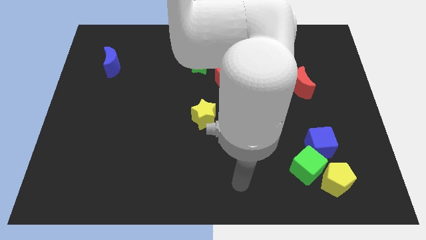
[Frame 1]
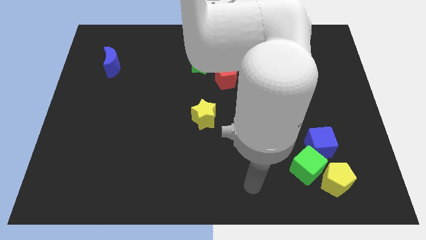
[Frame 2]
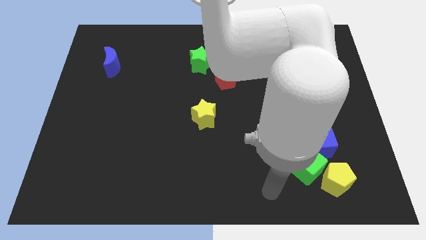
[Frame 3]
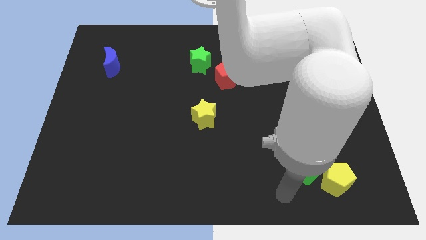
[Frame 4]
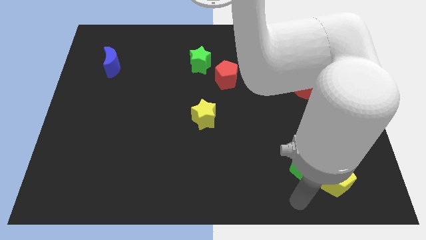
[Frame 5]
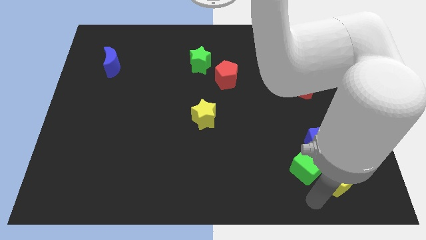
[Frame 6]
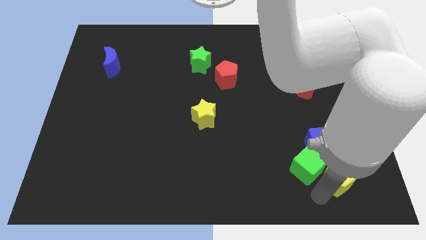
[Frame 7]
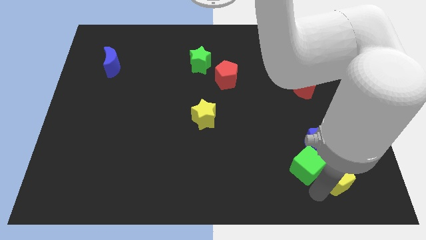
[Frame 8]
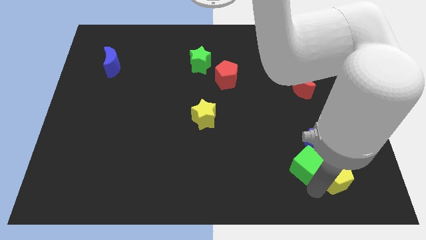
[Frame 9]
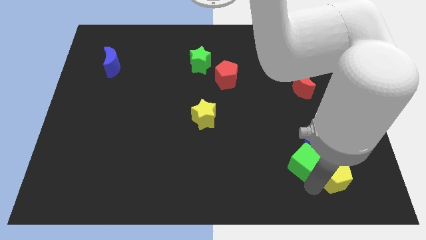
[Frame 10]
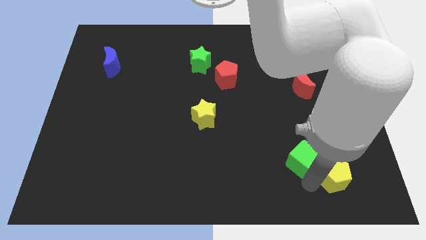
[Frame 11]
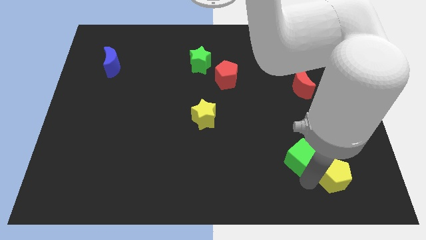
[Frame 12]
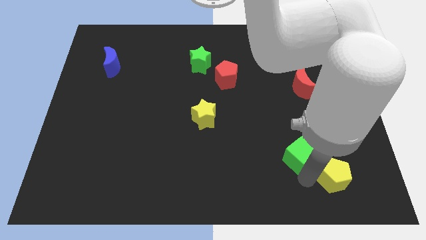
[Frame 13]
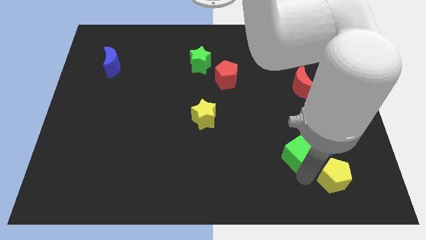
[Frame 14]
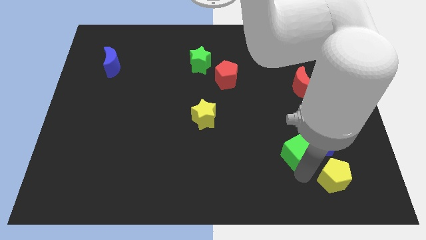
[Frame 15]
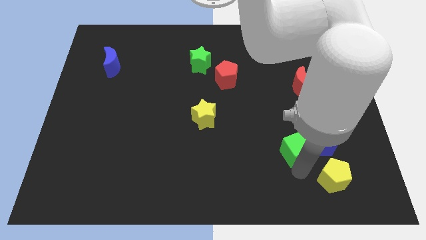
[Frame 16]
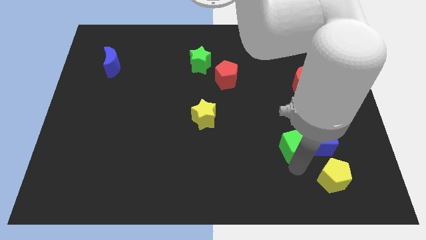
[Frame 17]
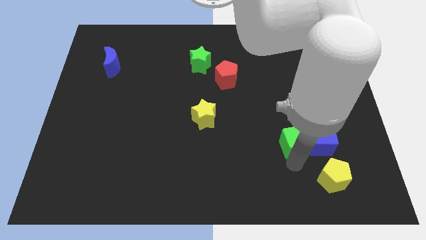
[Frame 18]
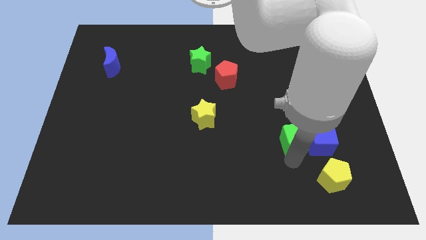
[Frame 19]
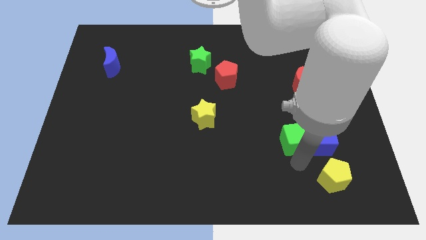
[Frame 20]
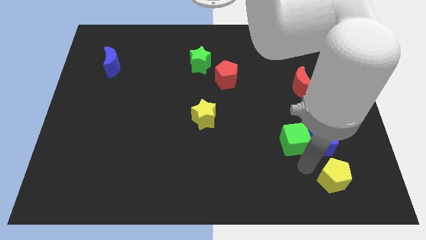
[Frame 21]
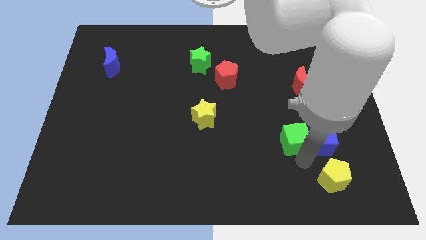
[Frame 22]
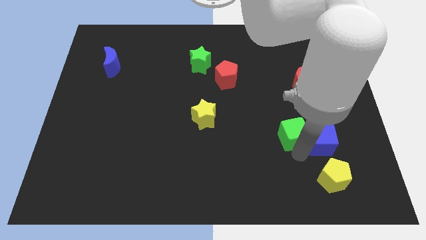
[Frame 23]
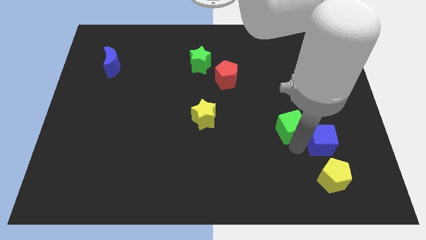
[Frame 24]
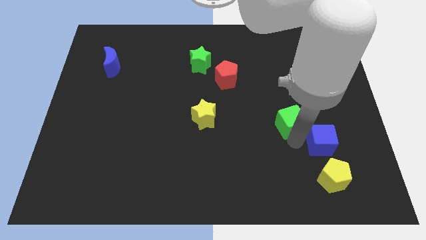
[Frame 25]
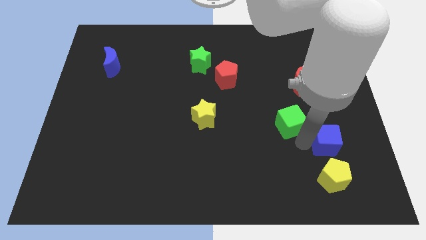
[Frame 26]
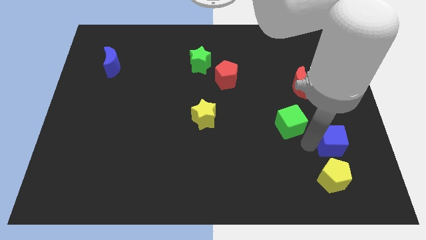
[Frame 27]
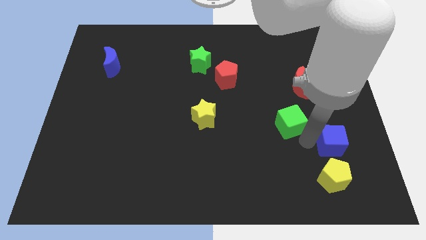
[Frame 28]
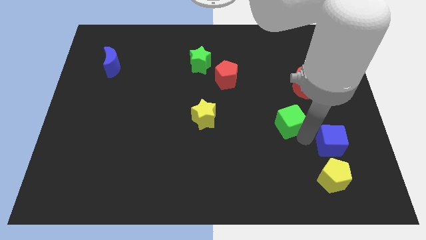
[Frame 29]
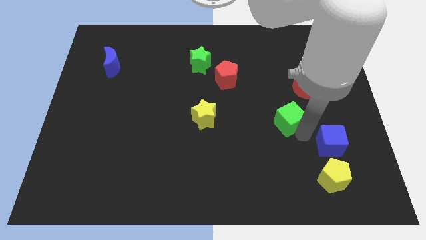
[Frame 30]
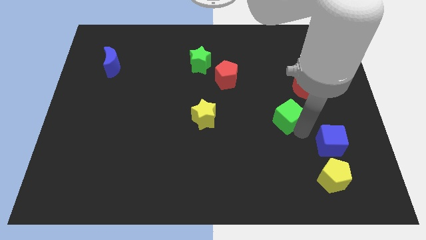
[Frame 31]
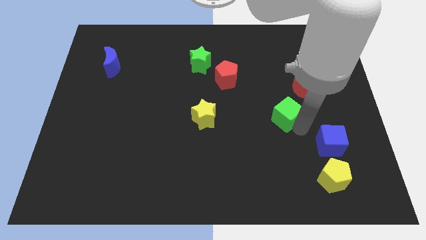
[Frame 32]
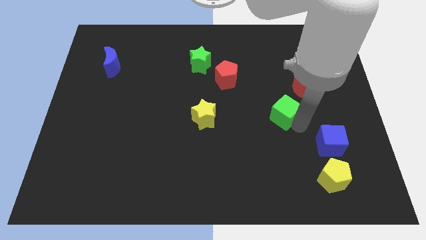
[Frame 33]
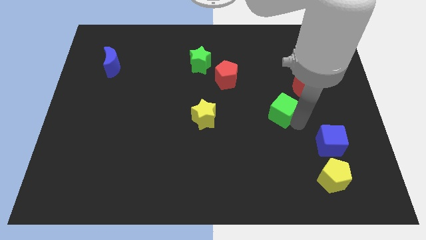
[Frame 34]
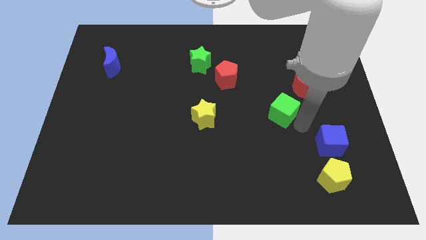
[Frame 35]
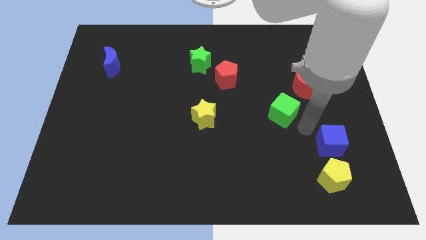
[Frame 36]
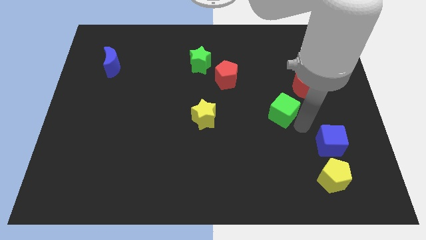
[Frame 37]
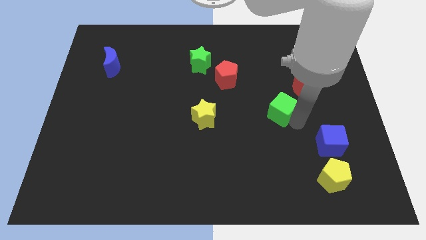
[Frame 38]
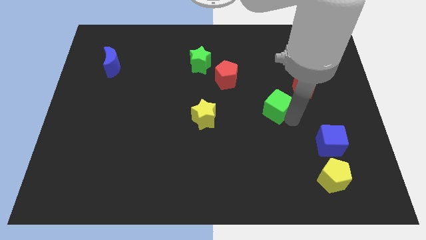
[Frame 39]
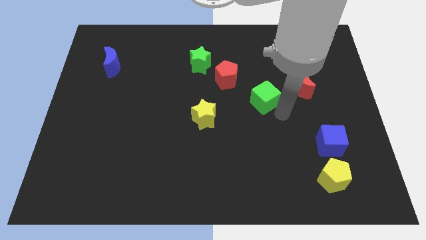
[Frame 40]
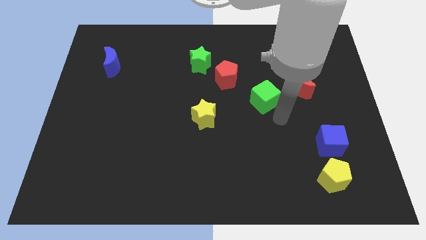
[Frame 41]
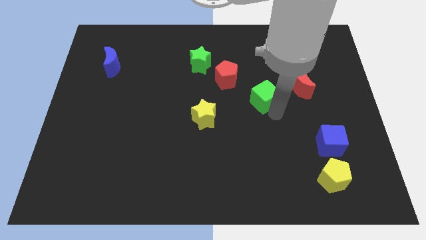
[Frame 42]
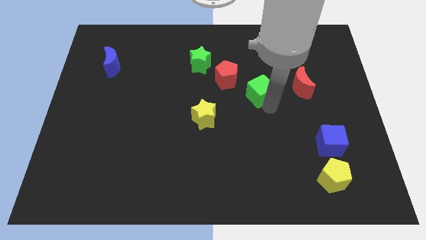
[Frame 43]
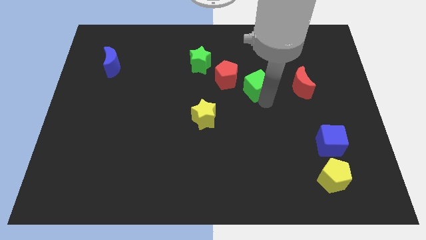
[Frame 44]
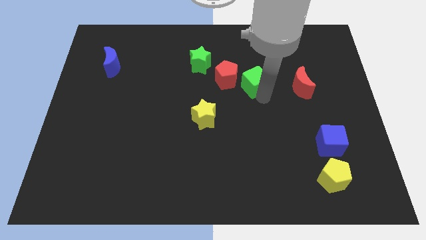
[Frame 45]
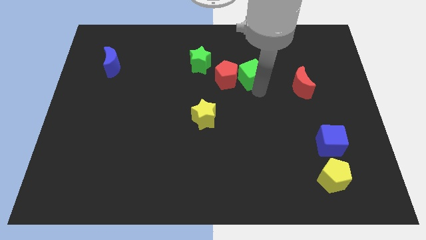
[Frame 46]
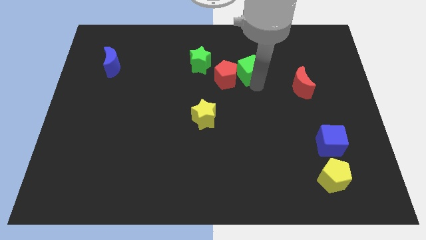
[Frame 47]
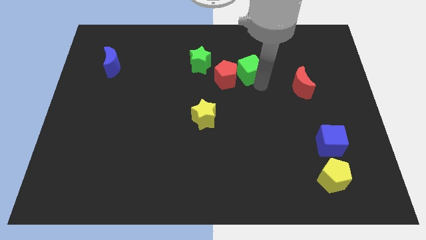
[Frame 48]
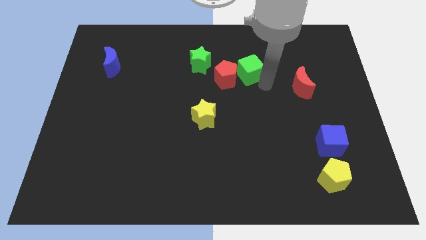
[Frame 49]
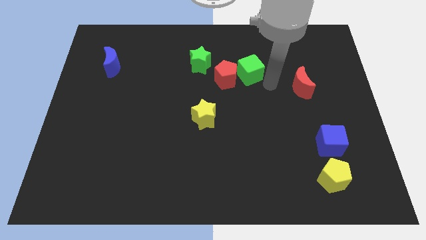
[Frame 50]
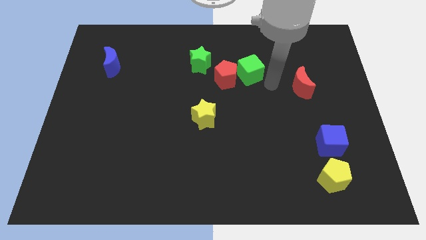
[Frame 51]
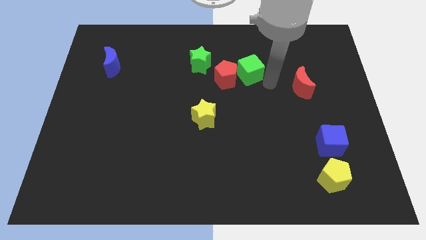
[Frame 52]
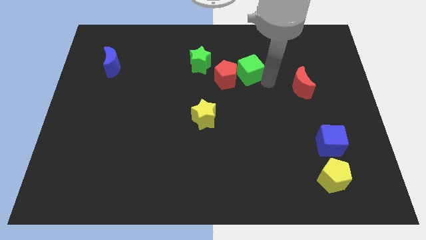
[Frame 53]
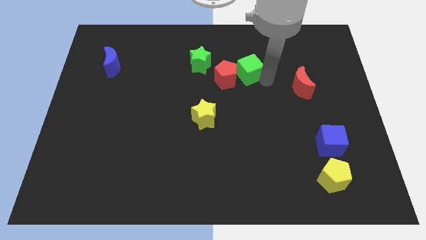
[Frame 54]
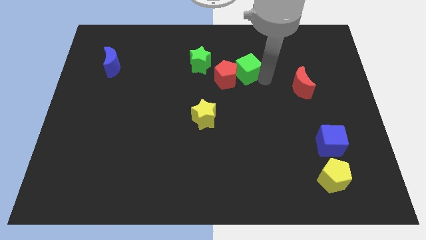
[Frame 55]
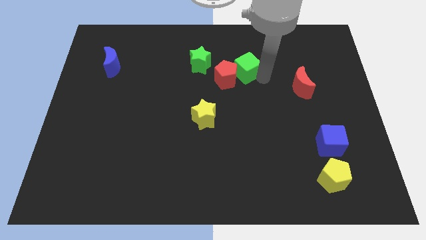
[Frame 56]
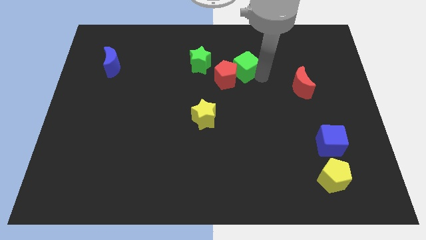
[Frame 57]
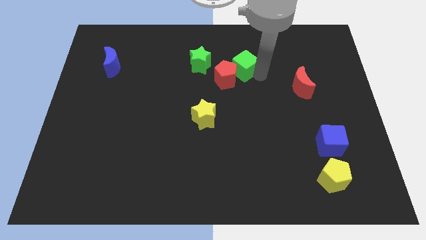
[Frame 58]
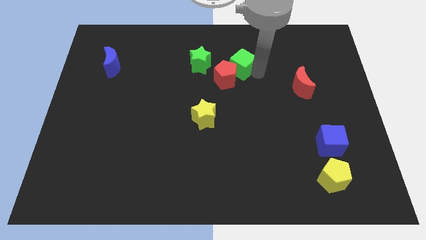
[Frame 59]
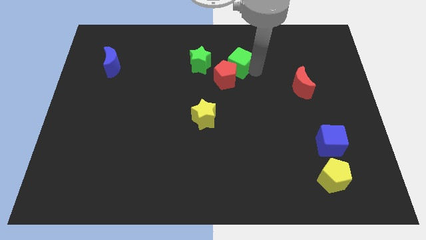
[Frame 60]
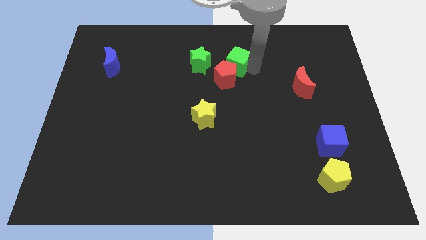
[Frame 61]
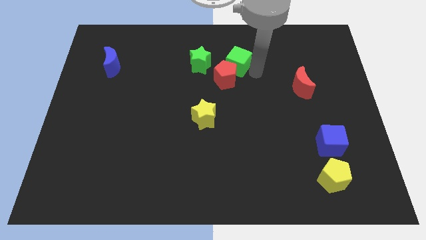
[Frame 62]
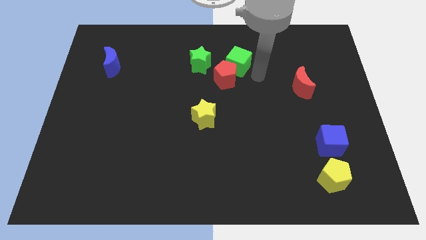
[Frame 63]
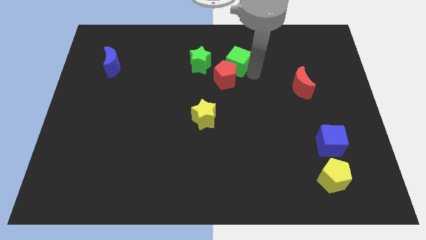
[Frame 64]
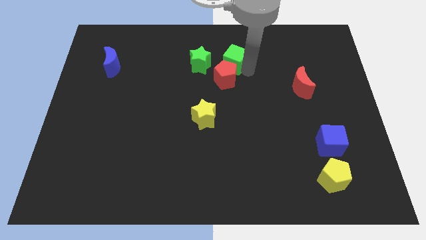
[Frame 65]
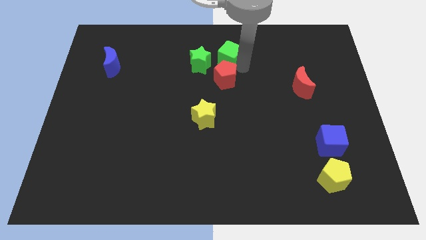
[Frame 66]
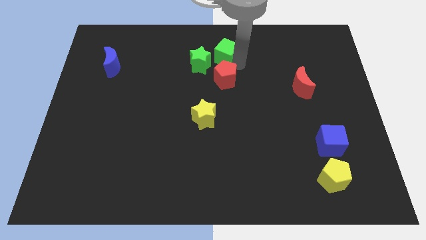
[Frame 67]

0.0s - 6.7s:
push the green cube to the top
